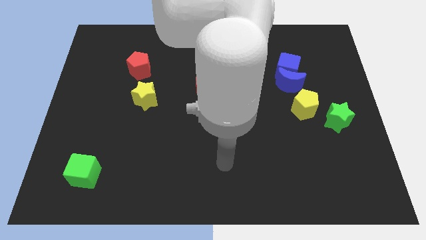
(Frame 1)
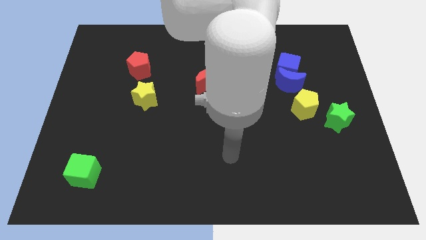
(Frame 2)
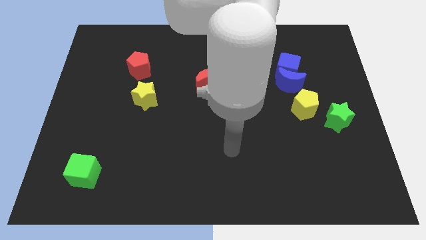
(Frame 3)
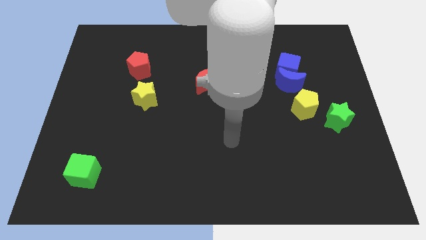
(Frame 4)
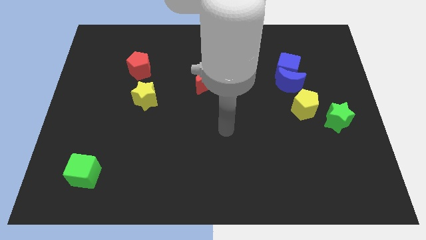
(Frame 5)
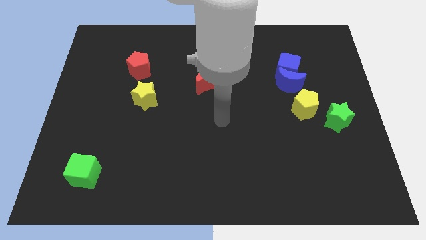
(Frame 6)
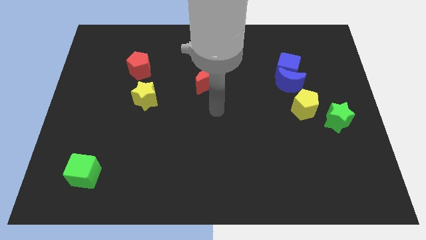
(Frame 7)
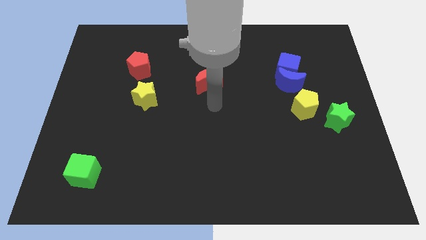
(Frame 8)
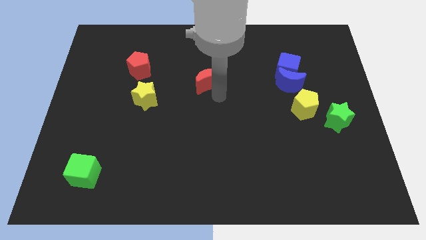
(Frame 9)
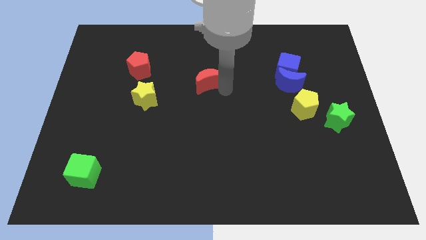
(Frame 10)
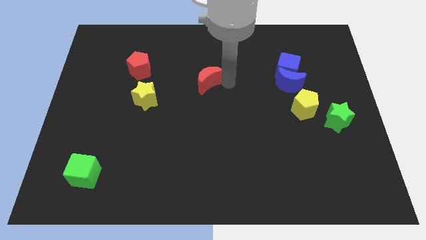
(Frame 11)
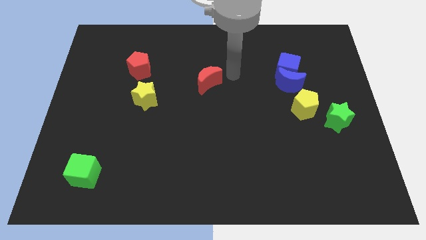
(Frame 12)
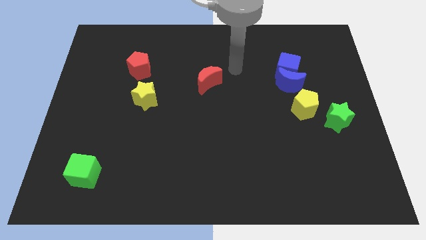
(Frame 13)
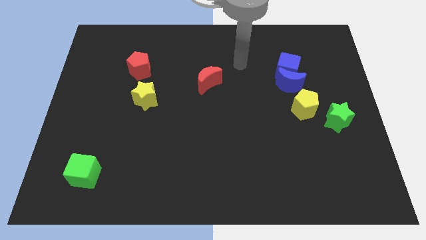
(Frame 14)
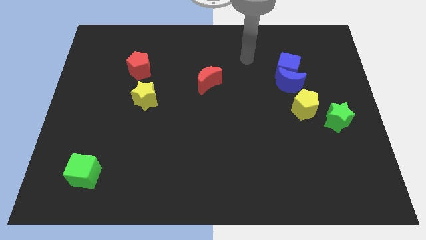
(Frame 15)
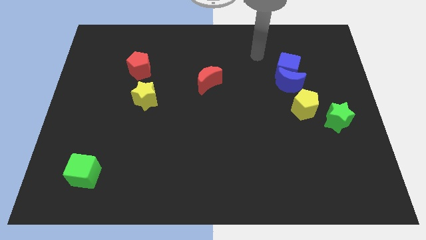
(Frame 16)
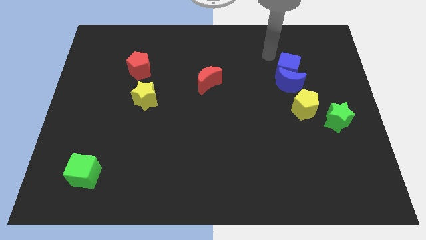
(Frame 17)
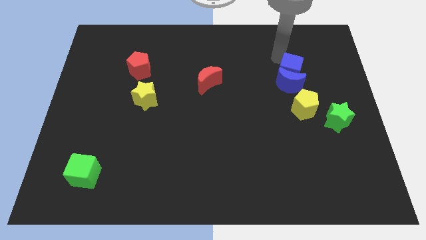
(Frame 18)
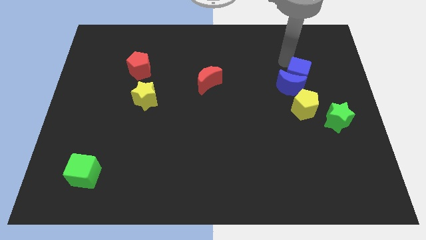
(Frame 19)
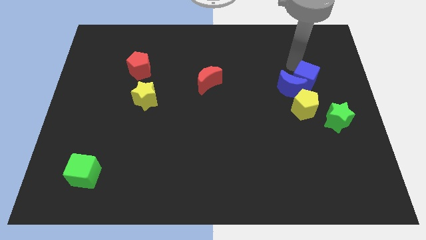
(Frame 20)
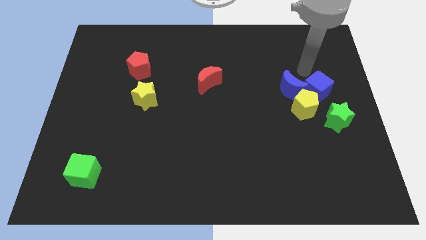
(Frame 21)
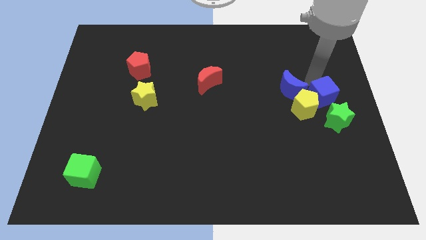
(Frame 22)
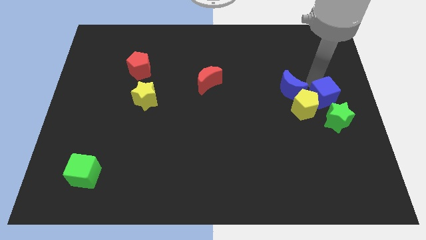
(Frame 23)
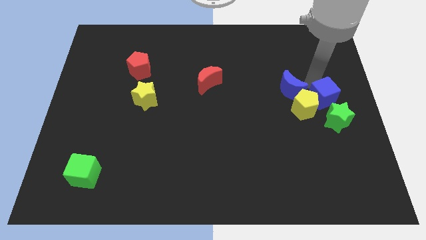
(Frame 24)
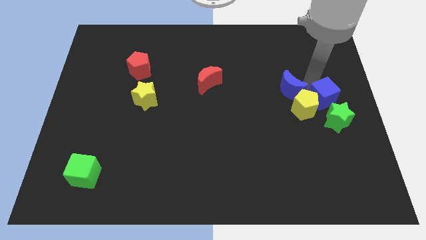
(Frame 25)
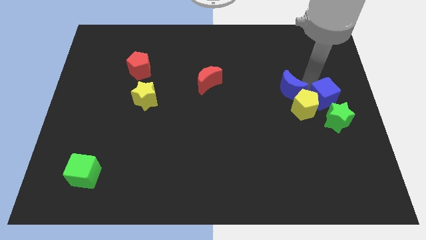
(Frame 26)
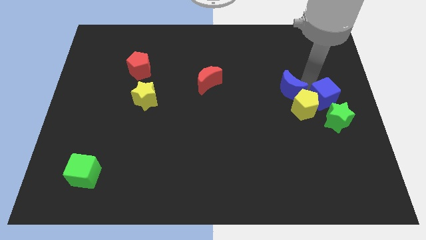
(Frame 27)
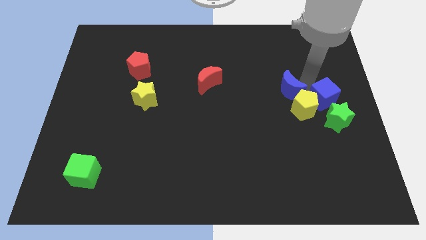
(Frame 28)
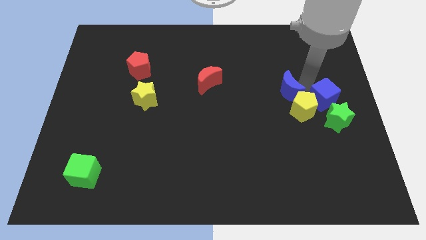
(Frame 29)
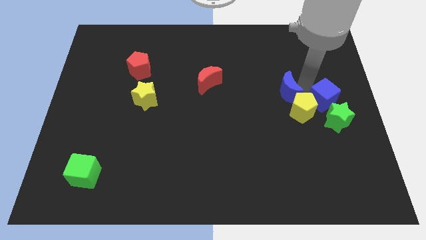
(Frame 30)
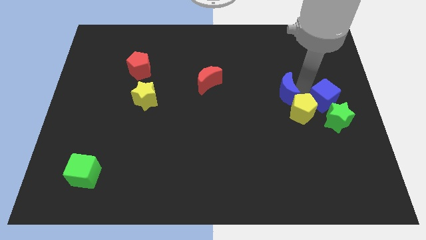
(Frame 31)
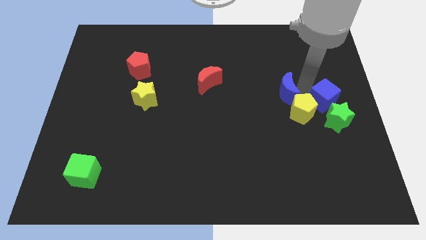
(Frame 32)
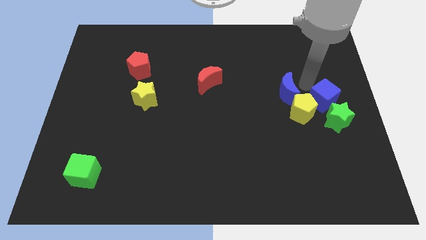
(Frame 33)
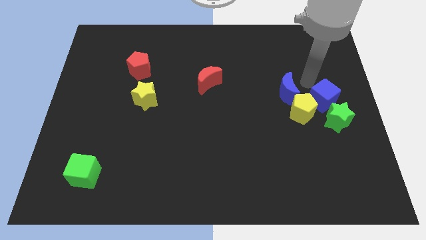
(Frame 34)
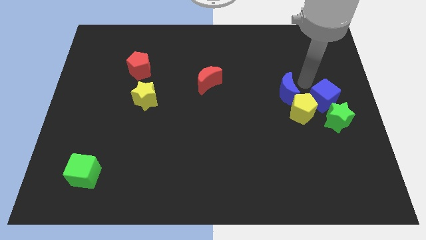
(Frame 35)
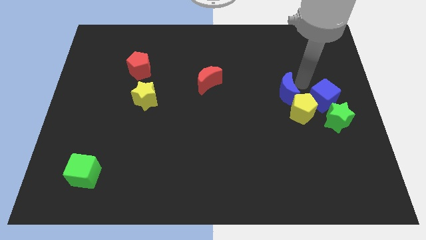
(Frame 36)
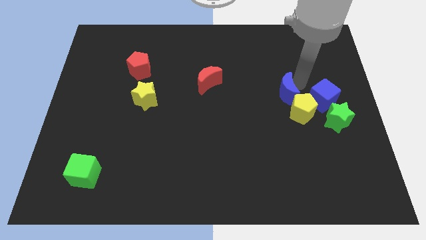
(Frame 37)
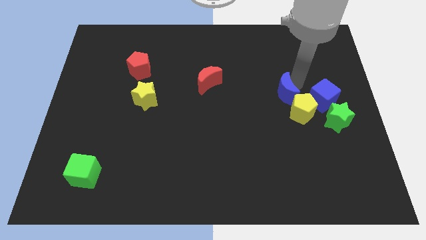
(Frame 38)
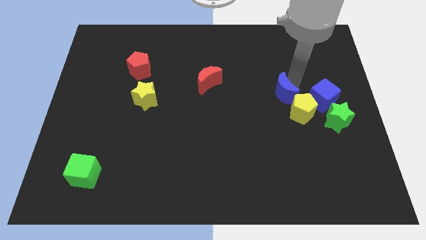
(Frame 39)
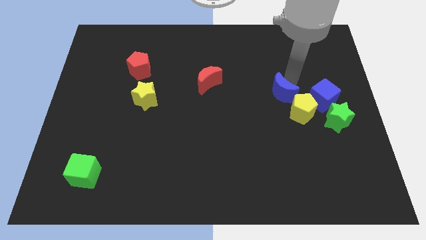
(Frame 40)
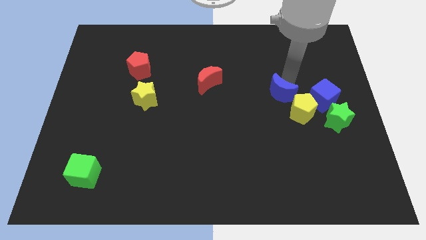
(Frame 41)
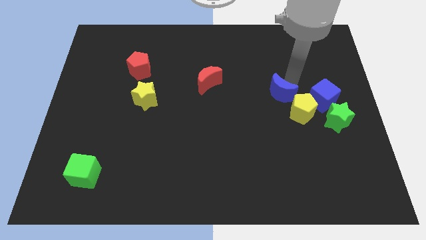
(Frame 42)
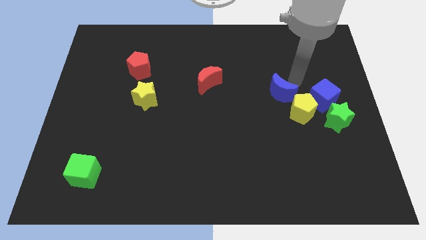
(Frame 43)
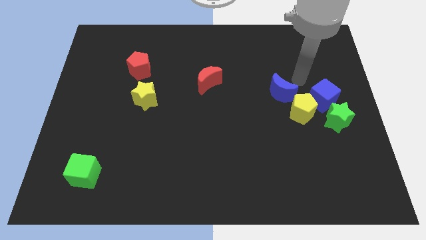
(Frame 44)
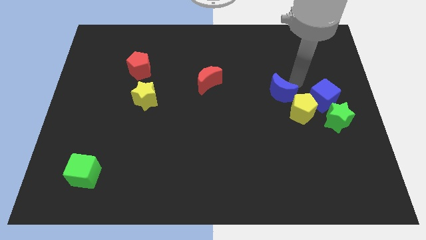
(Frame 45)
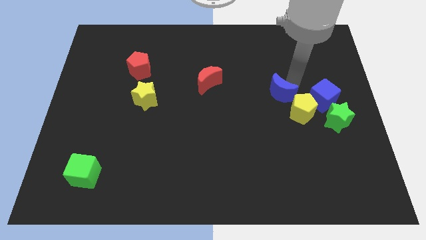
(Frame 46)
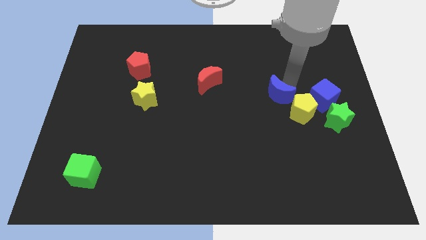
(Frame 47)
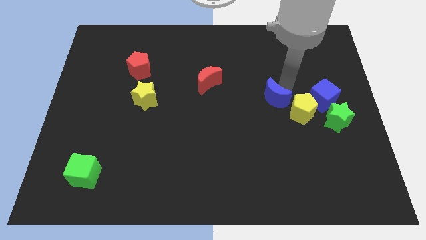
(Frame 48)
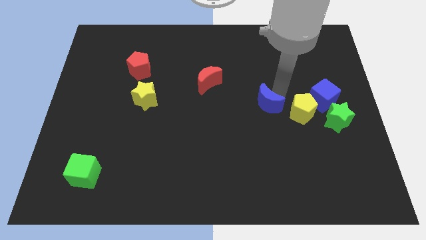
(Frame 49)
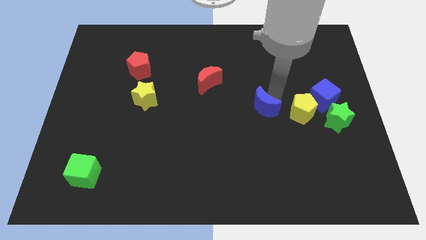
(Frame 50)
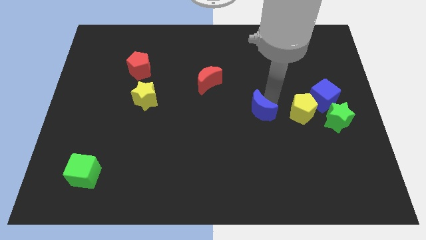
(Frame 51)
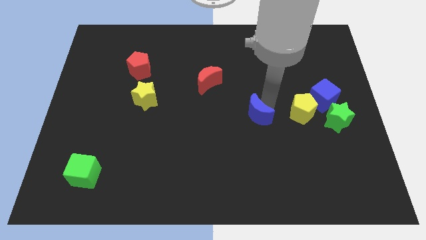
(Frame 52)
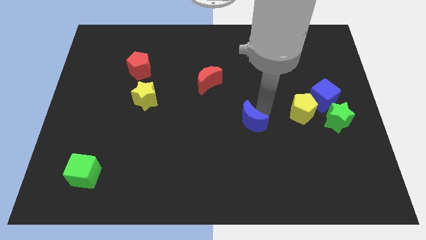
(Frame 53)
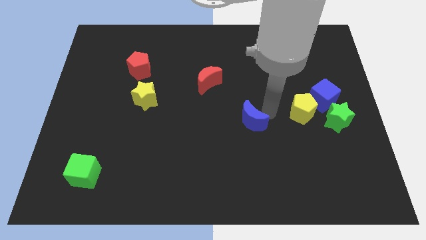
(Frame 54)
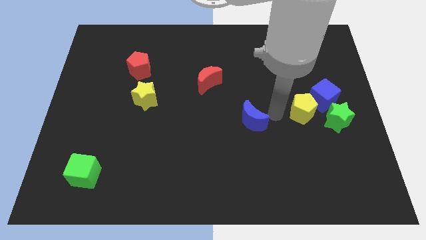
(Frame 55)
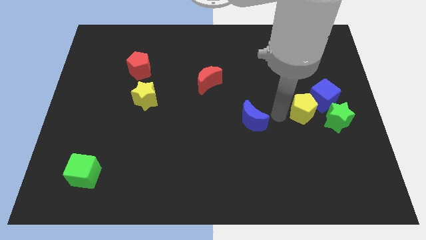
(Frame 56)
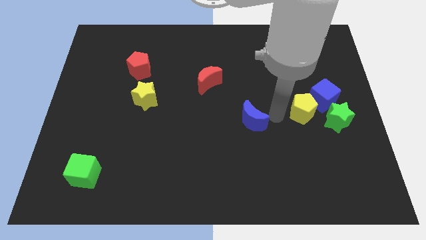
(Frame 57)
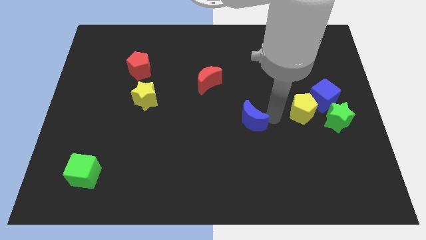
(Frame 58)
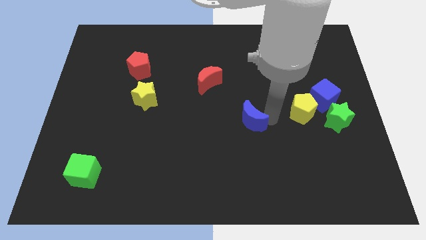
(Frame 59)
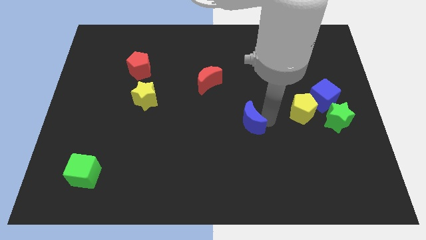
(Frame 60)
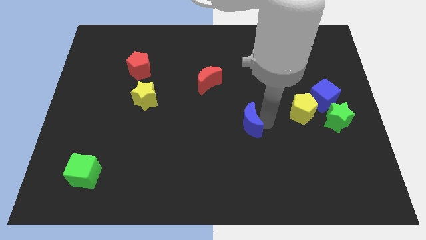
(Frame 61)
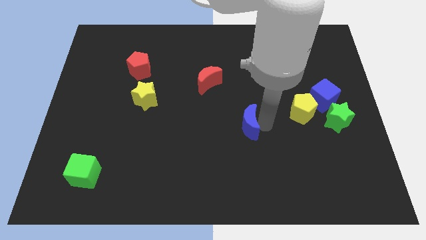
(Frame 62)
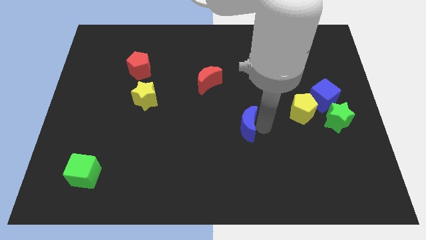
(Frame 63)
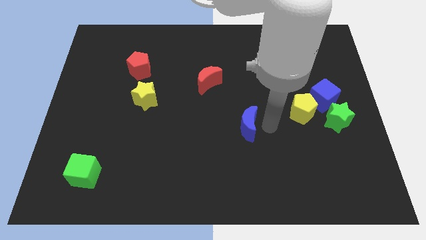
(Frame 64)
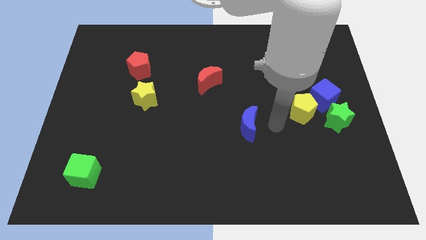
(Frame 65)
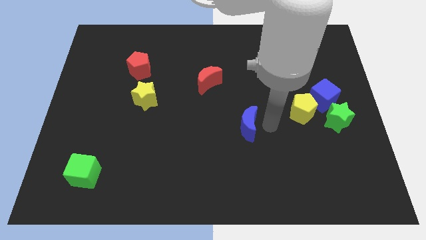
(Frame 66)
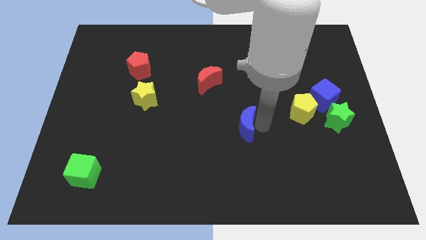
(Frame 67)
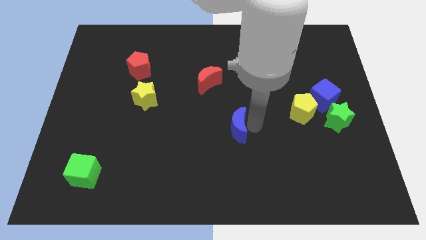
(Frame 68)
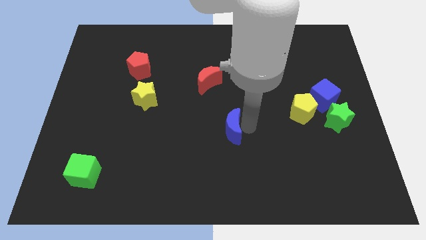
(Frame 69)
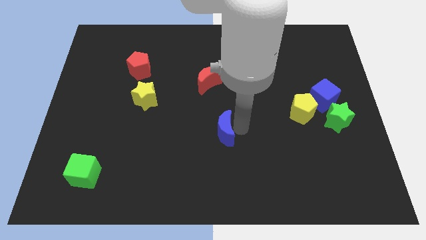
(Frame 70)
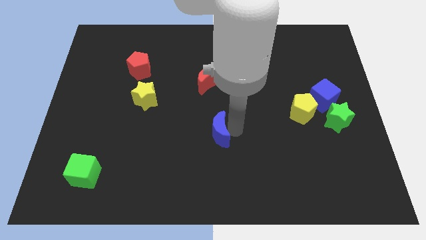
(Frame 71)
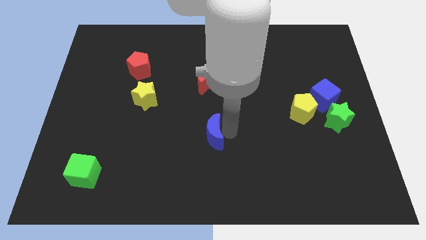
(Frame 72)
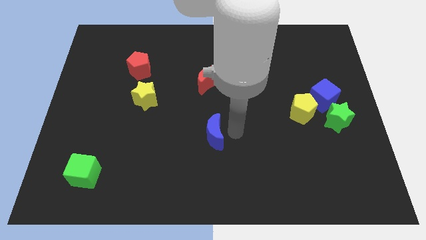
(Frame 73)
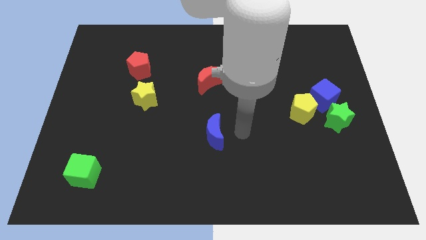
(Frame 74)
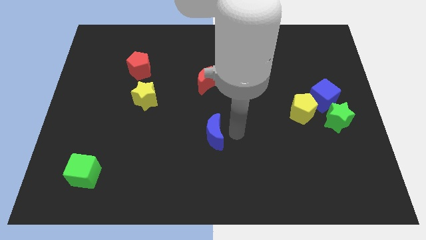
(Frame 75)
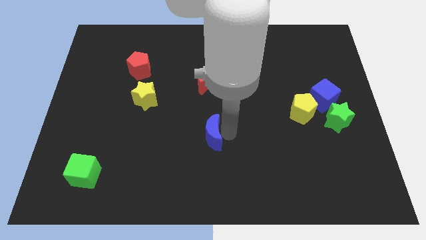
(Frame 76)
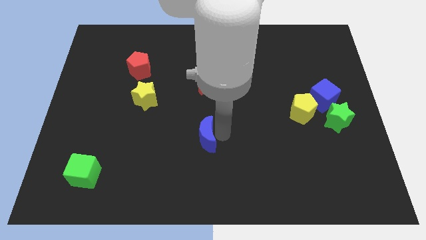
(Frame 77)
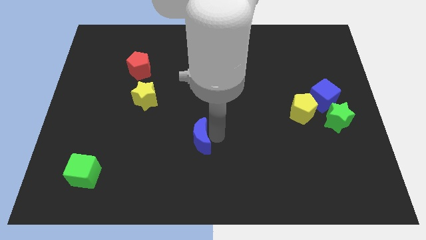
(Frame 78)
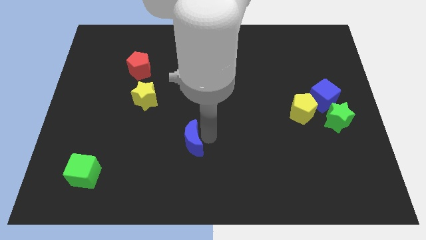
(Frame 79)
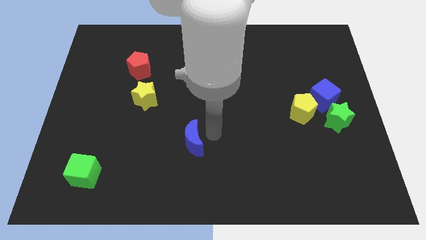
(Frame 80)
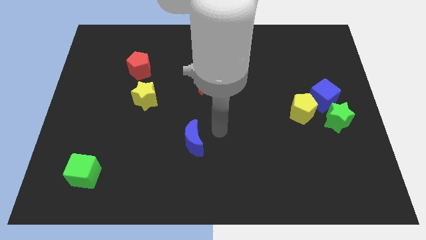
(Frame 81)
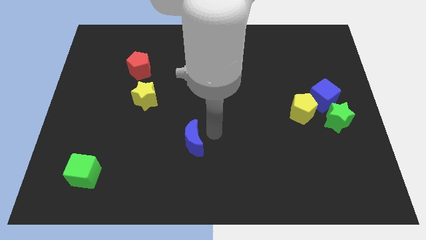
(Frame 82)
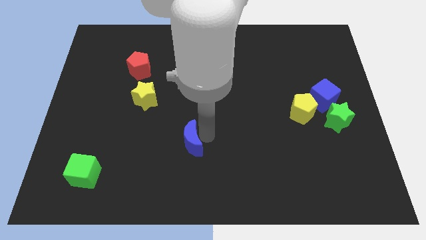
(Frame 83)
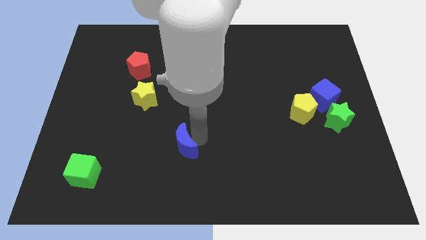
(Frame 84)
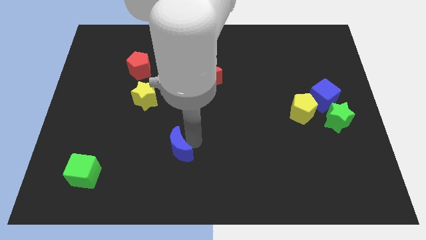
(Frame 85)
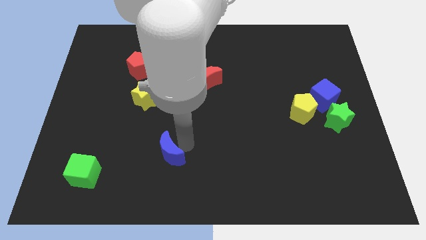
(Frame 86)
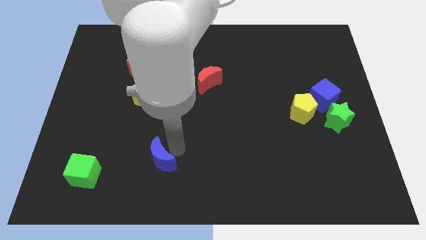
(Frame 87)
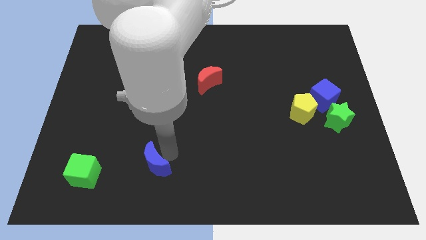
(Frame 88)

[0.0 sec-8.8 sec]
push the blue moon just right of the green cube
